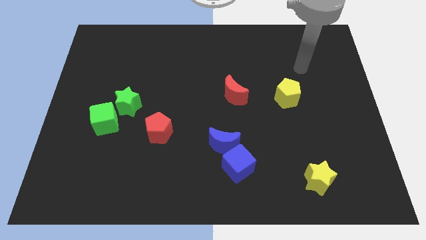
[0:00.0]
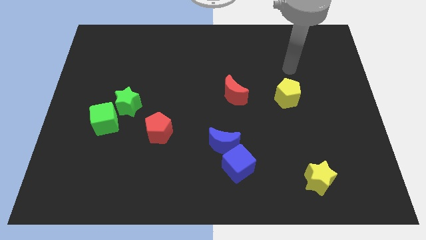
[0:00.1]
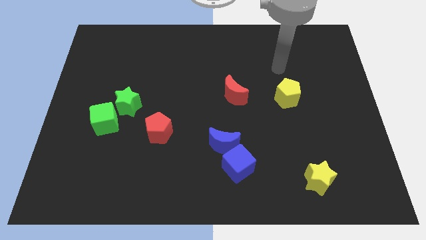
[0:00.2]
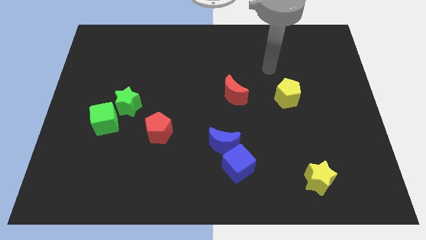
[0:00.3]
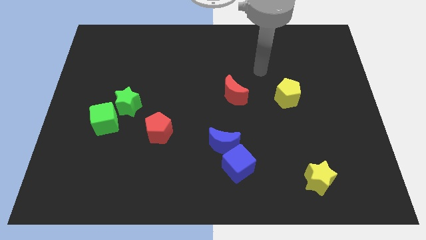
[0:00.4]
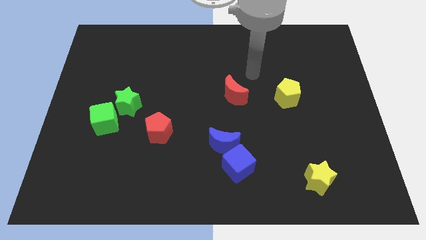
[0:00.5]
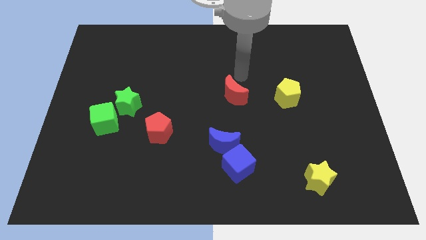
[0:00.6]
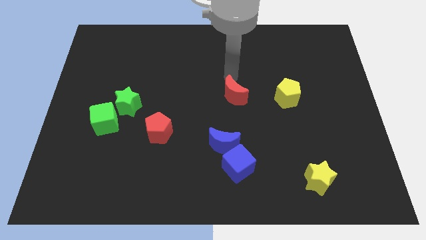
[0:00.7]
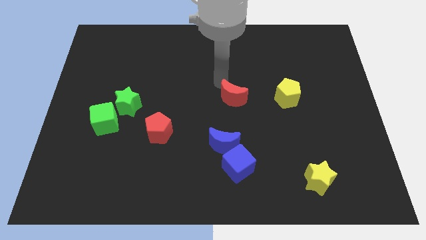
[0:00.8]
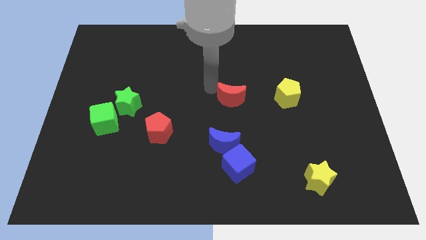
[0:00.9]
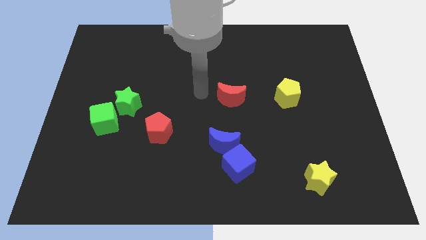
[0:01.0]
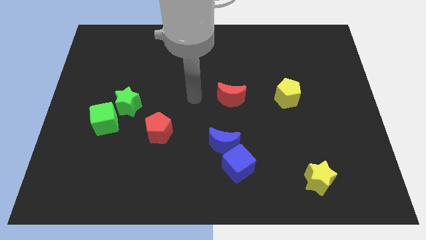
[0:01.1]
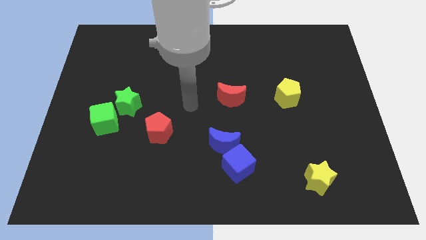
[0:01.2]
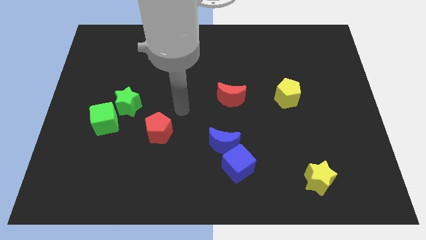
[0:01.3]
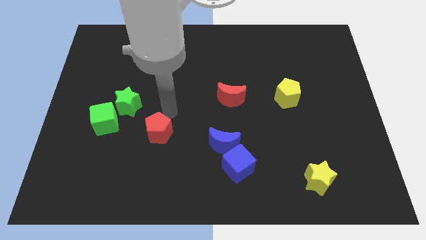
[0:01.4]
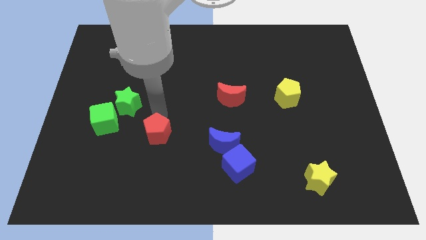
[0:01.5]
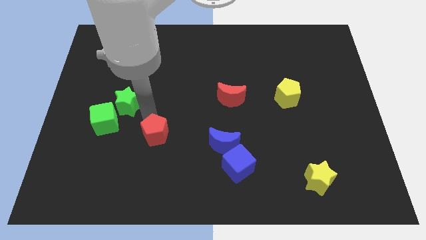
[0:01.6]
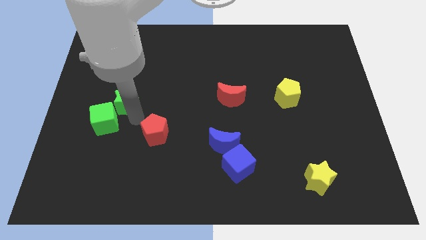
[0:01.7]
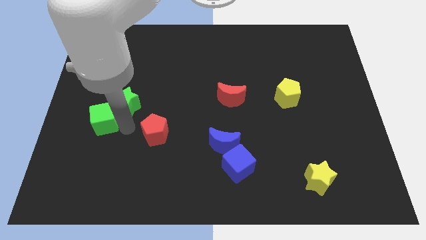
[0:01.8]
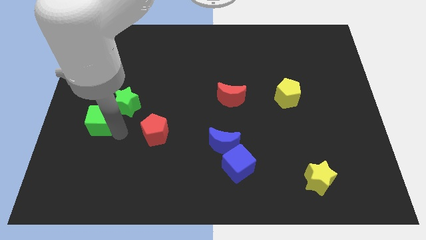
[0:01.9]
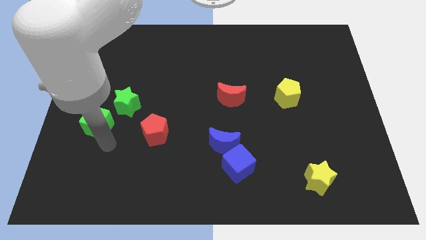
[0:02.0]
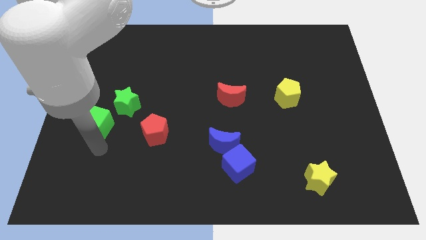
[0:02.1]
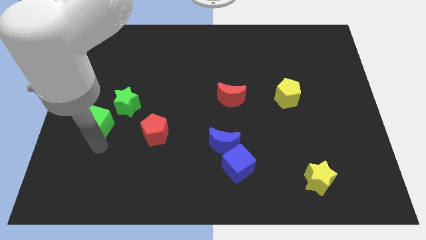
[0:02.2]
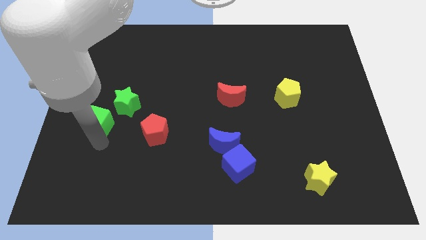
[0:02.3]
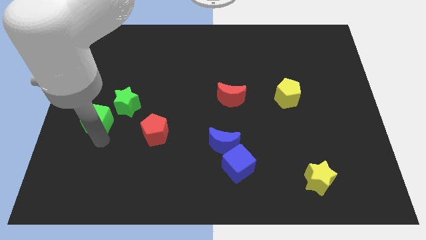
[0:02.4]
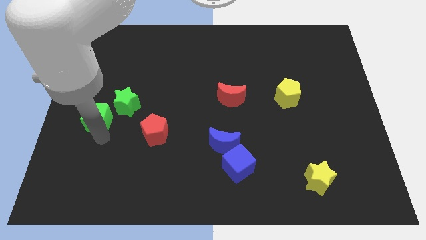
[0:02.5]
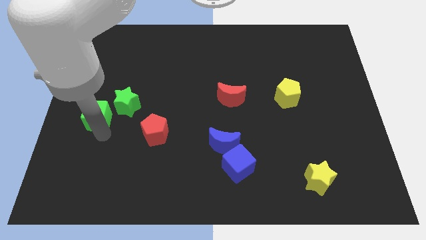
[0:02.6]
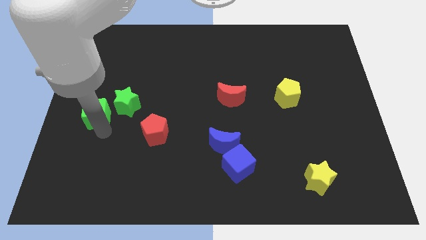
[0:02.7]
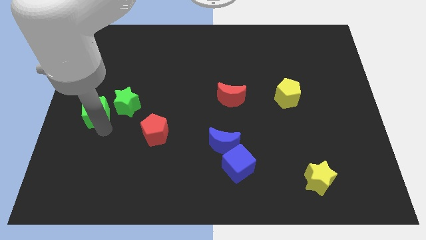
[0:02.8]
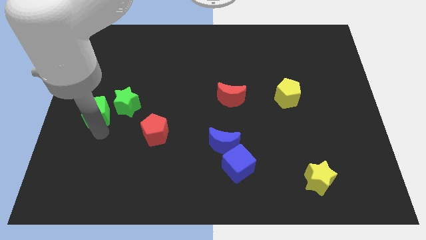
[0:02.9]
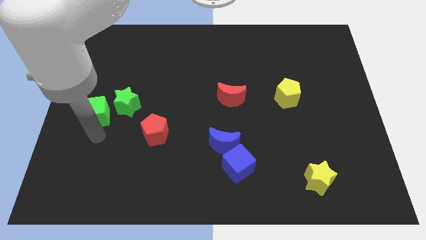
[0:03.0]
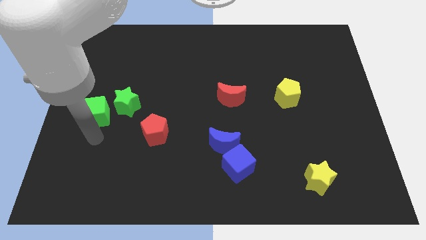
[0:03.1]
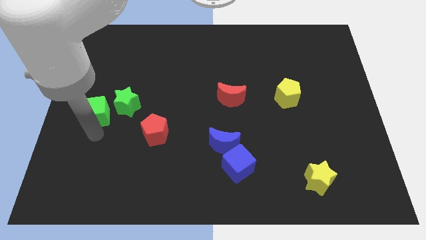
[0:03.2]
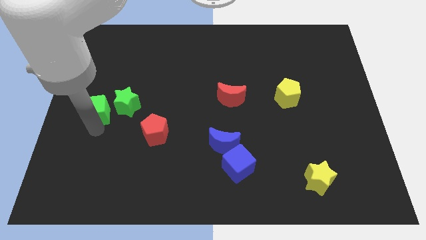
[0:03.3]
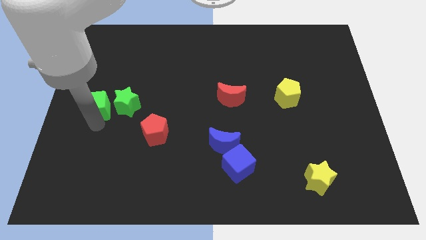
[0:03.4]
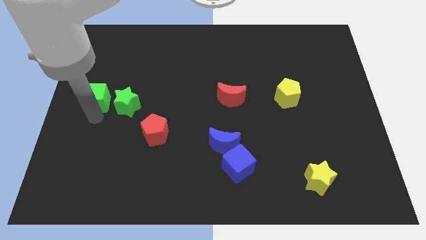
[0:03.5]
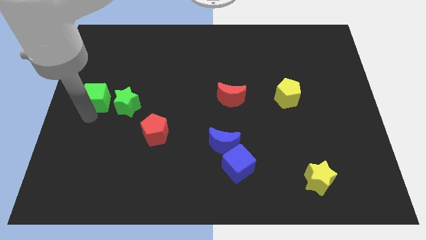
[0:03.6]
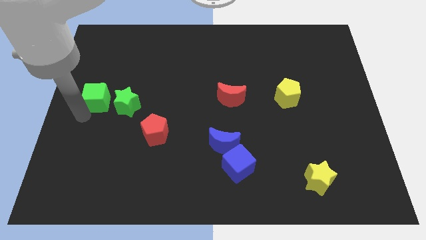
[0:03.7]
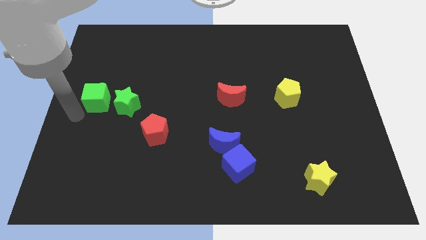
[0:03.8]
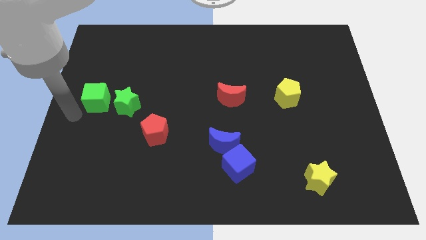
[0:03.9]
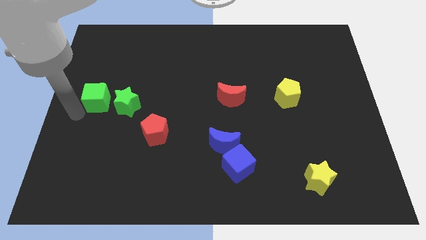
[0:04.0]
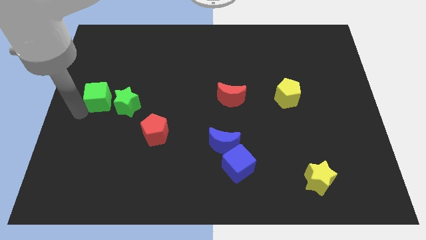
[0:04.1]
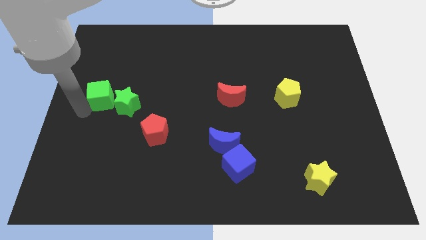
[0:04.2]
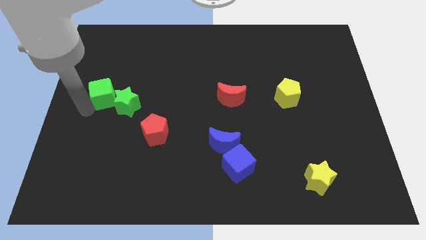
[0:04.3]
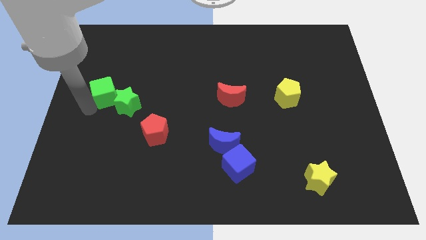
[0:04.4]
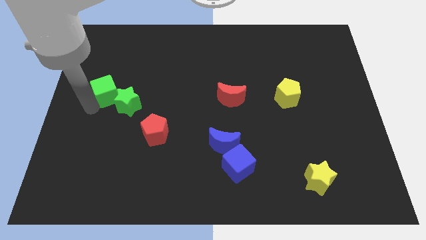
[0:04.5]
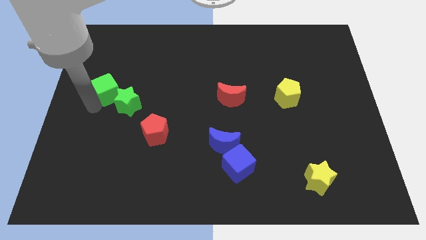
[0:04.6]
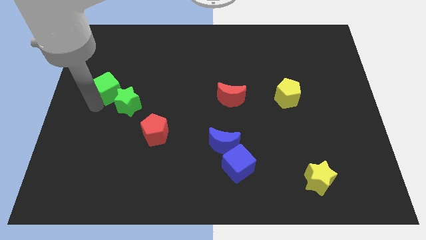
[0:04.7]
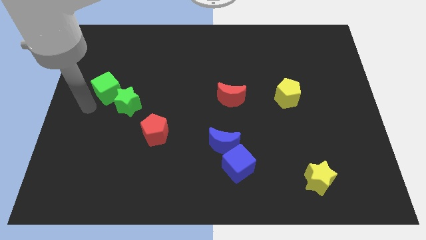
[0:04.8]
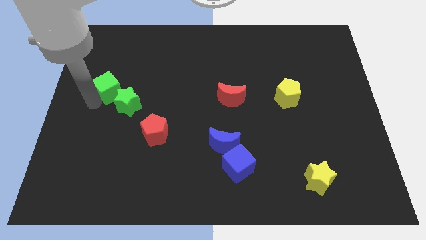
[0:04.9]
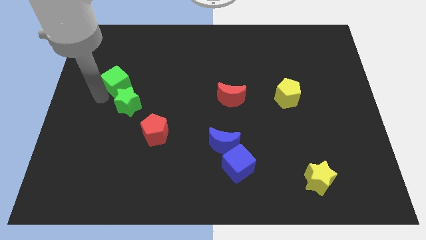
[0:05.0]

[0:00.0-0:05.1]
push the green cube to the top side of the green star

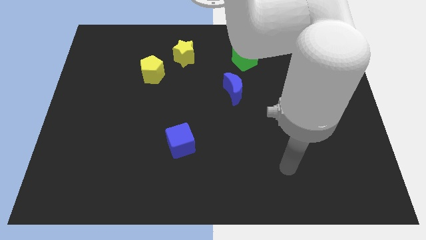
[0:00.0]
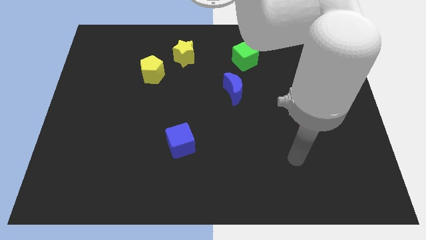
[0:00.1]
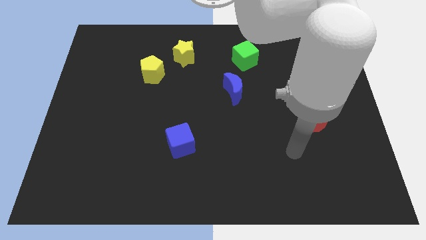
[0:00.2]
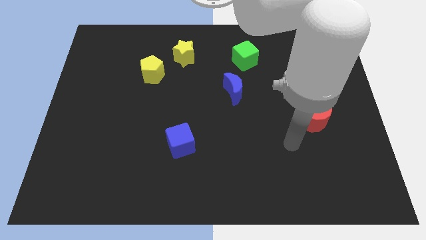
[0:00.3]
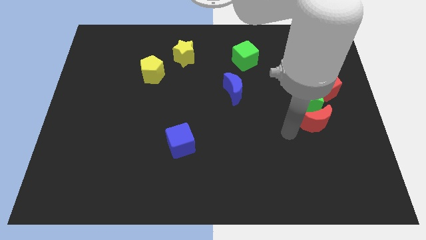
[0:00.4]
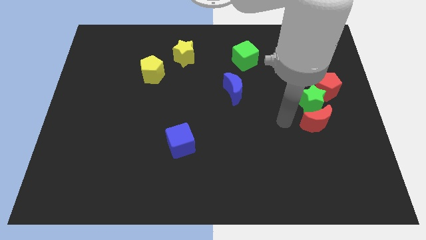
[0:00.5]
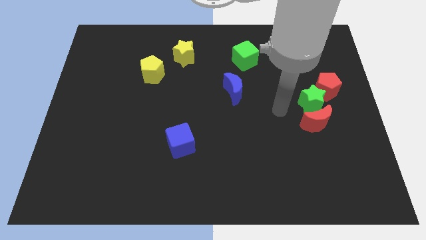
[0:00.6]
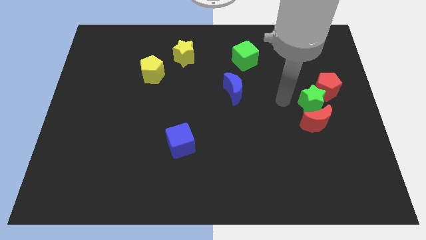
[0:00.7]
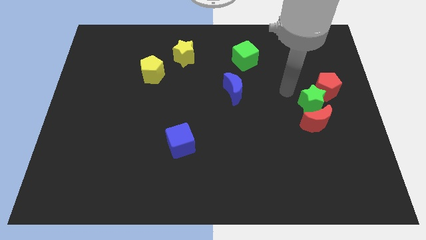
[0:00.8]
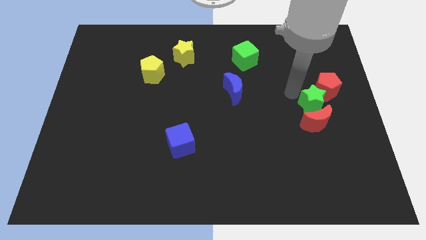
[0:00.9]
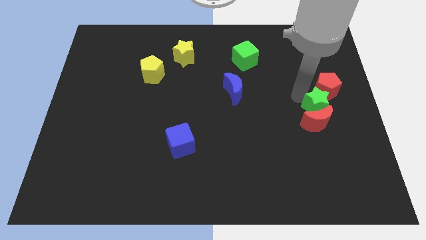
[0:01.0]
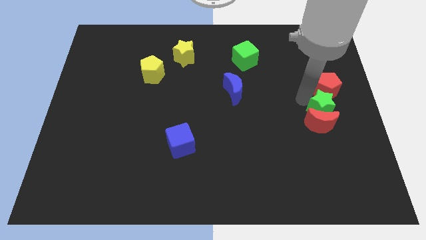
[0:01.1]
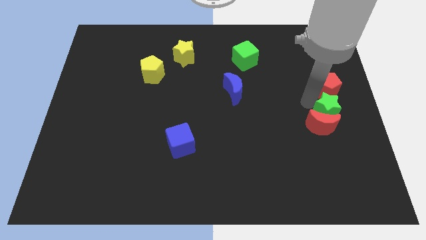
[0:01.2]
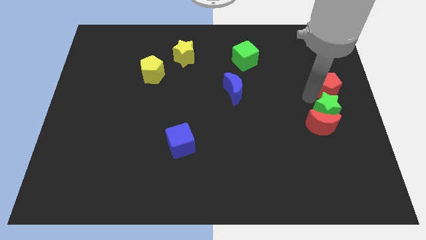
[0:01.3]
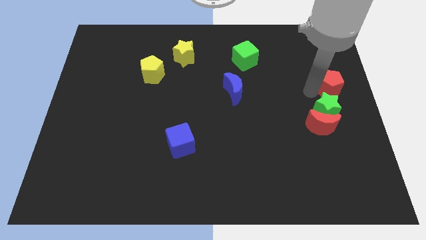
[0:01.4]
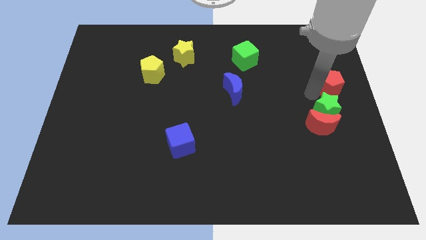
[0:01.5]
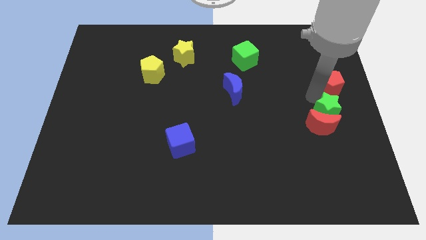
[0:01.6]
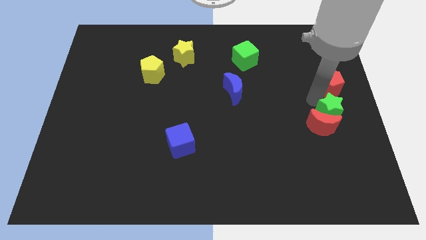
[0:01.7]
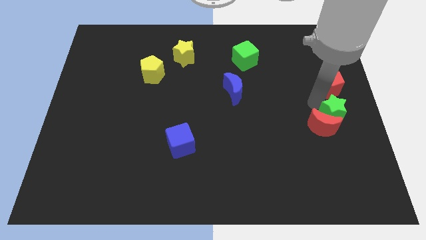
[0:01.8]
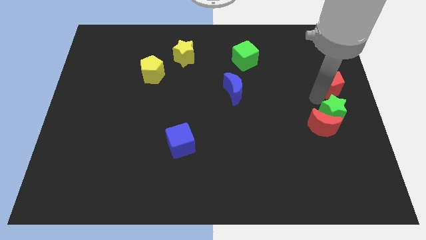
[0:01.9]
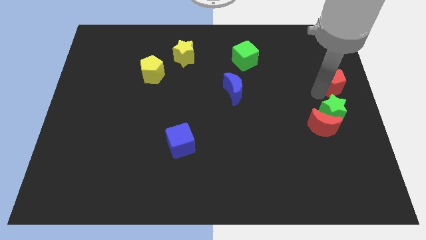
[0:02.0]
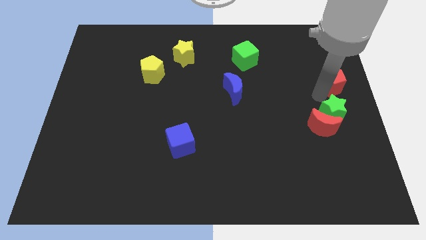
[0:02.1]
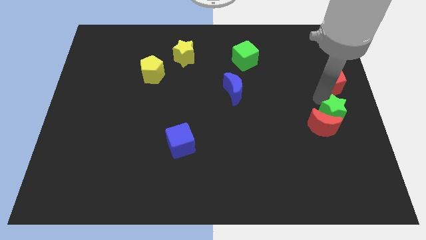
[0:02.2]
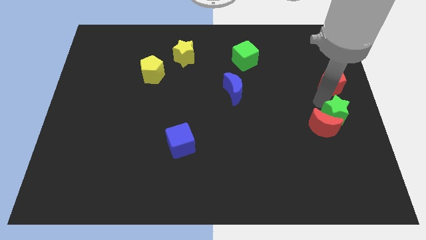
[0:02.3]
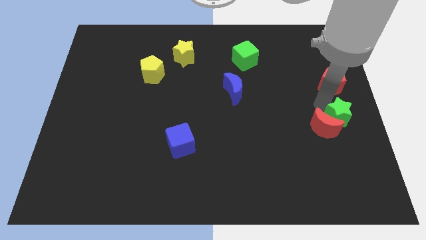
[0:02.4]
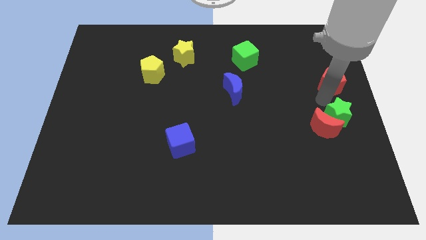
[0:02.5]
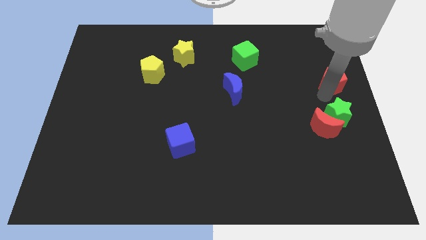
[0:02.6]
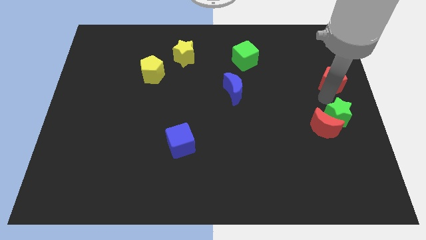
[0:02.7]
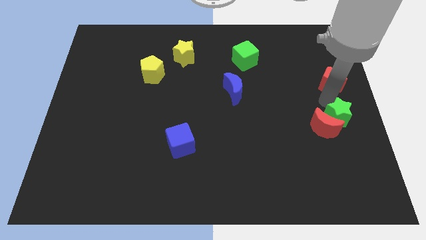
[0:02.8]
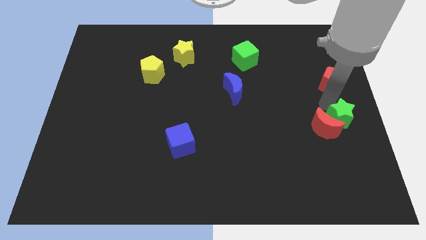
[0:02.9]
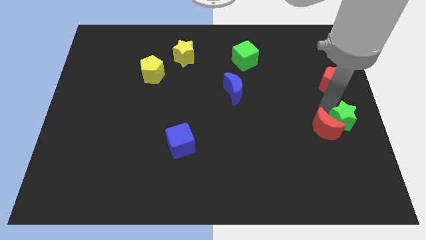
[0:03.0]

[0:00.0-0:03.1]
move the green star to the bottom right of the red moon
